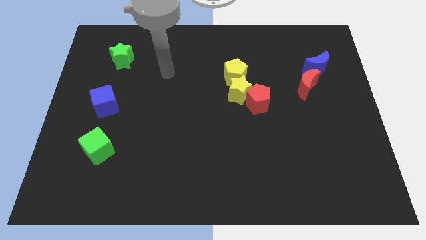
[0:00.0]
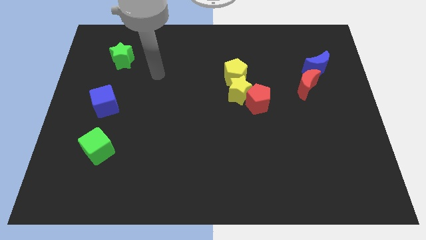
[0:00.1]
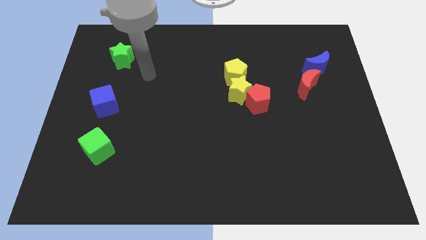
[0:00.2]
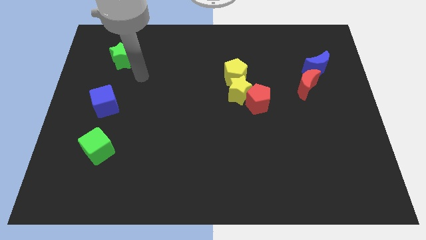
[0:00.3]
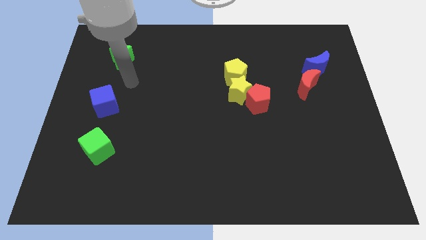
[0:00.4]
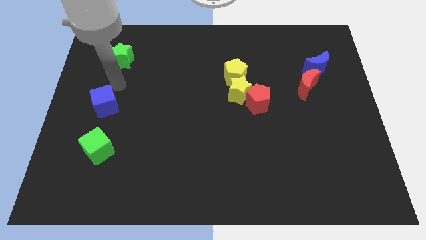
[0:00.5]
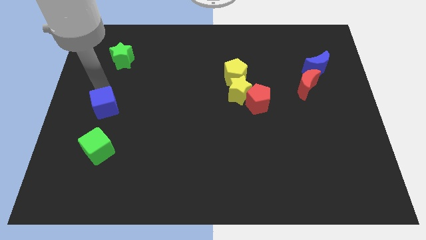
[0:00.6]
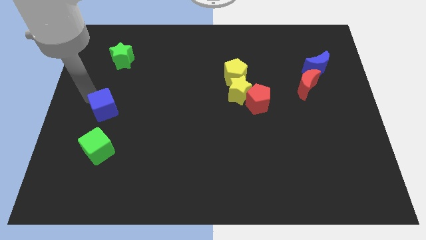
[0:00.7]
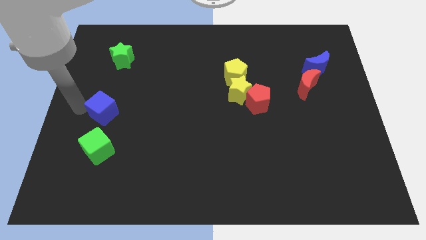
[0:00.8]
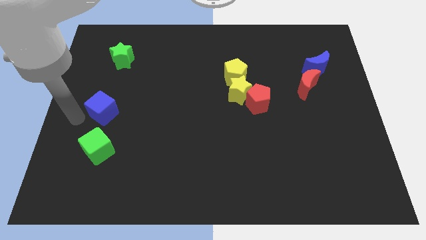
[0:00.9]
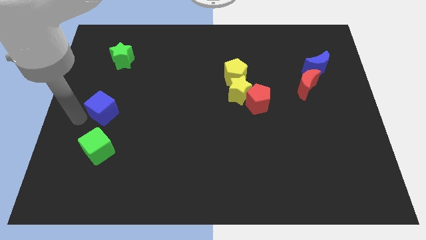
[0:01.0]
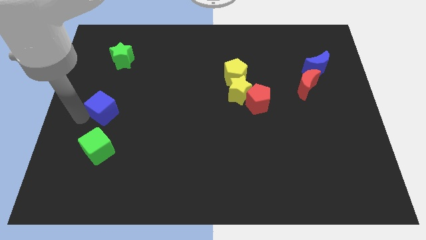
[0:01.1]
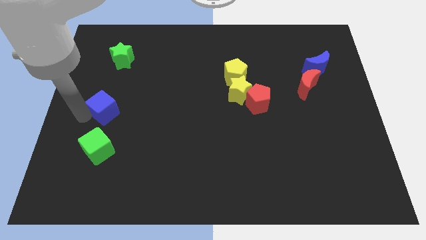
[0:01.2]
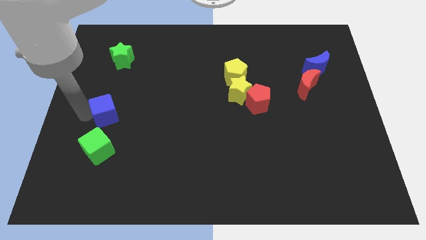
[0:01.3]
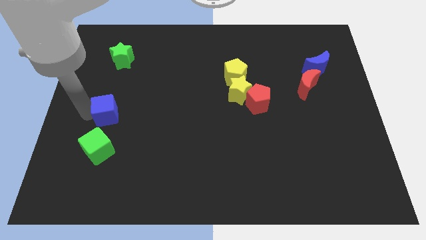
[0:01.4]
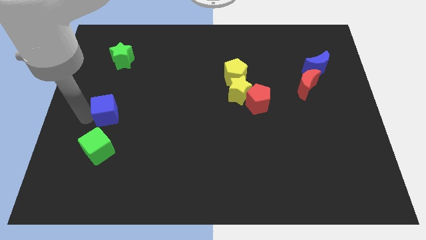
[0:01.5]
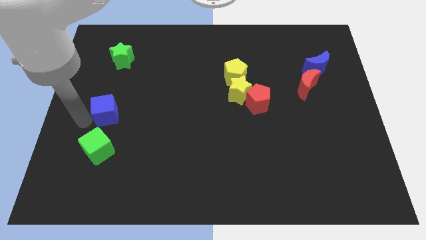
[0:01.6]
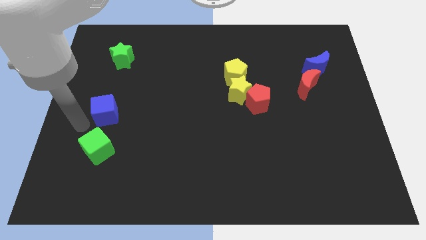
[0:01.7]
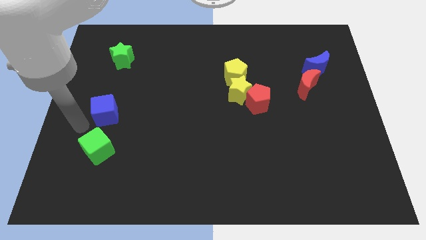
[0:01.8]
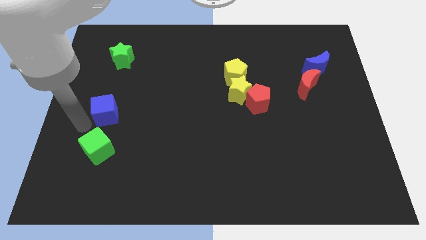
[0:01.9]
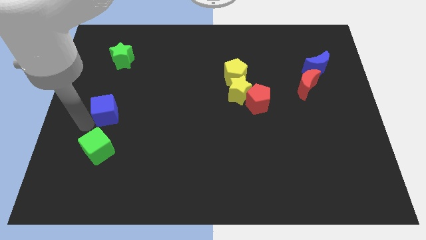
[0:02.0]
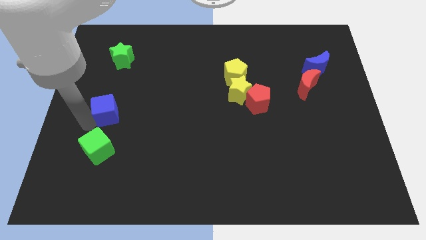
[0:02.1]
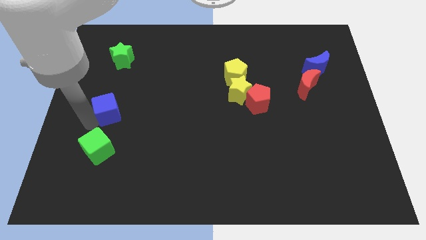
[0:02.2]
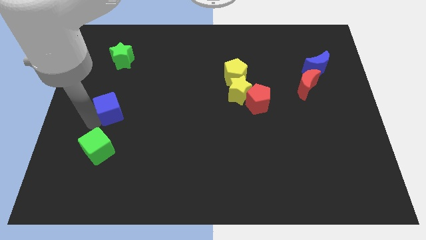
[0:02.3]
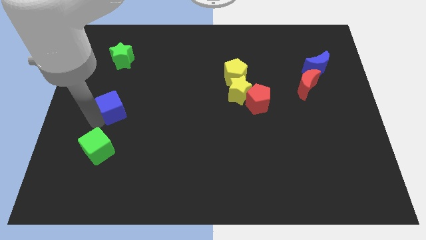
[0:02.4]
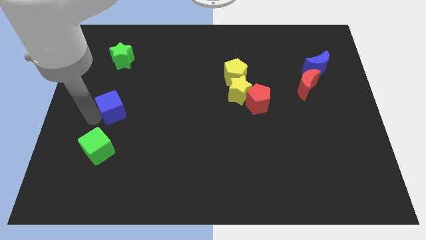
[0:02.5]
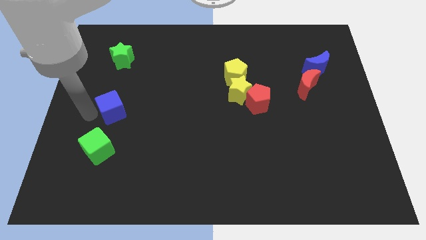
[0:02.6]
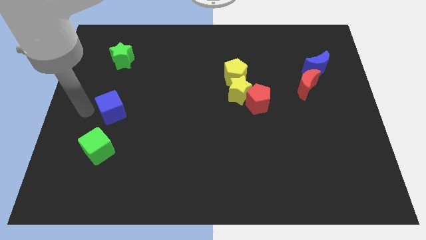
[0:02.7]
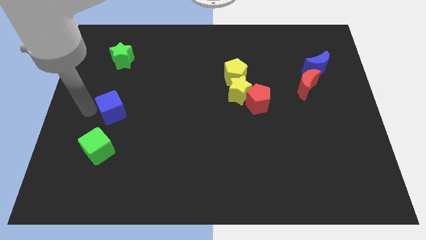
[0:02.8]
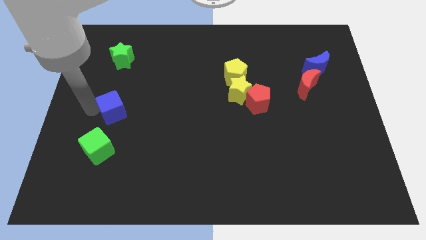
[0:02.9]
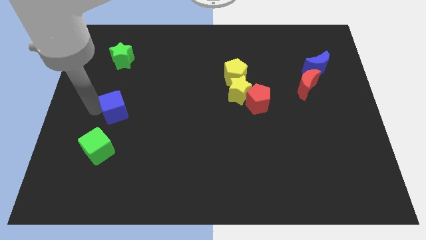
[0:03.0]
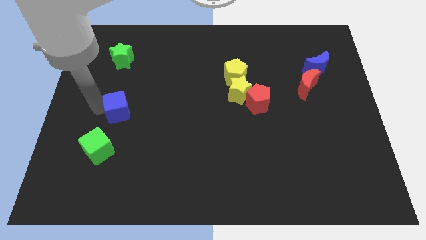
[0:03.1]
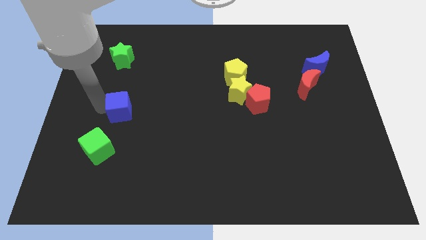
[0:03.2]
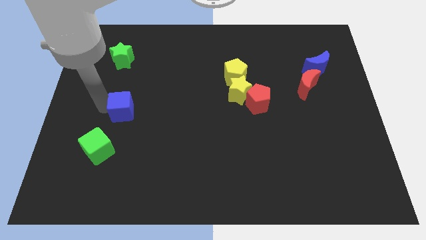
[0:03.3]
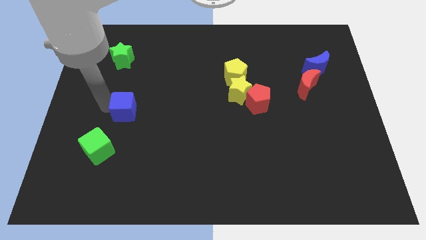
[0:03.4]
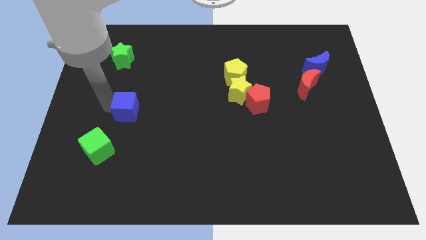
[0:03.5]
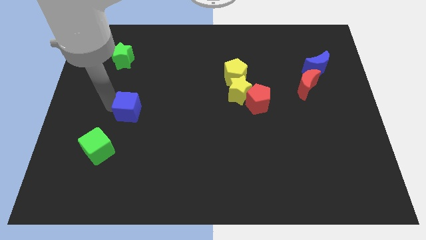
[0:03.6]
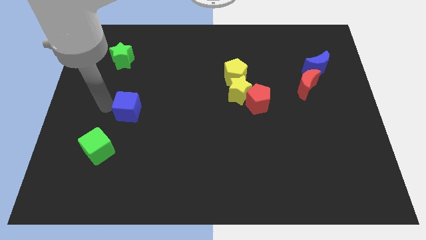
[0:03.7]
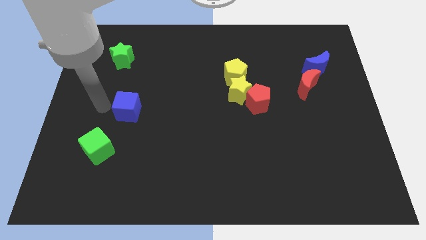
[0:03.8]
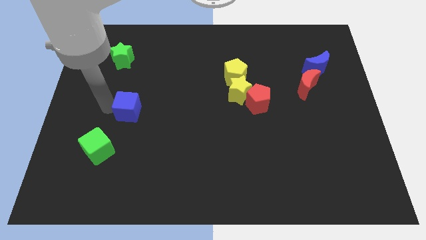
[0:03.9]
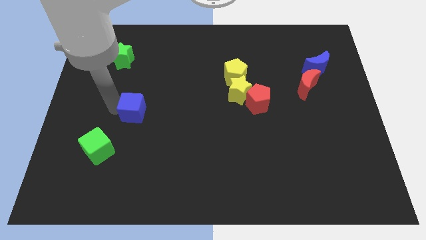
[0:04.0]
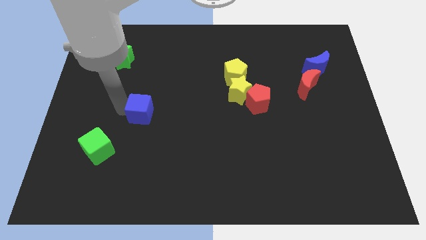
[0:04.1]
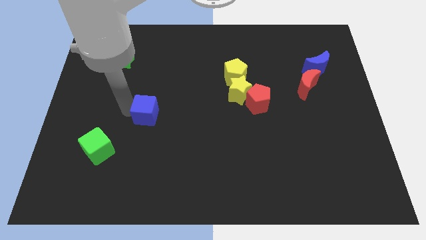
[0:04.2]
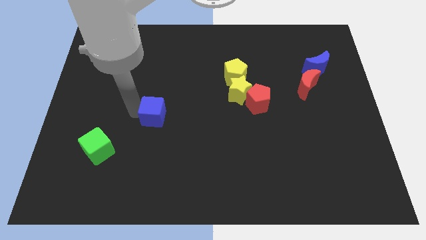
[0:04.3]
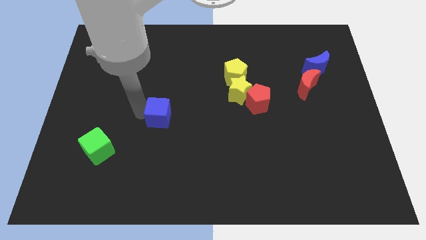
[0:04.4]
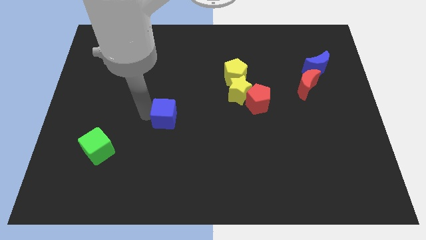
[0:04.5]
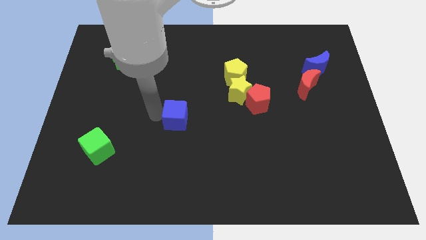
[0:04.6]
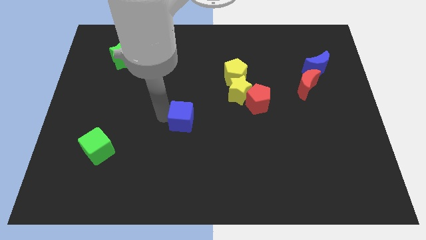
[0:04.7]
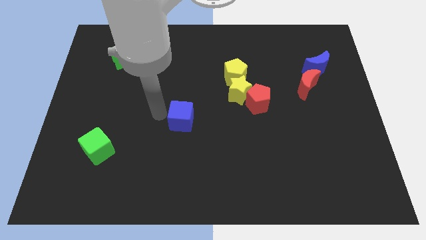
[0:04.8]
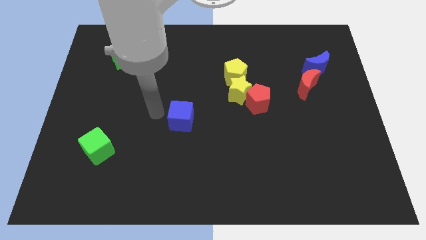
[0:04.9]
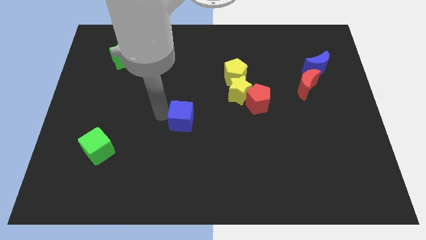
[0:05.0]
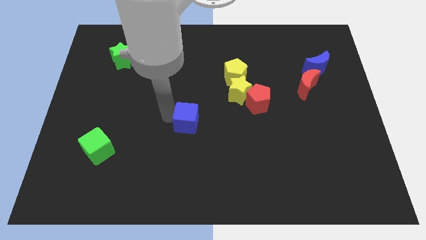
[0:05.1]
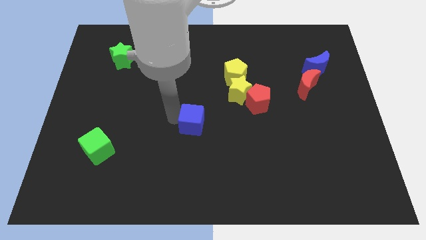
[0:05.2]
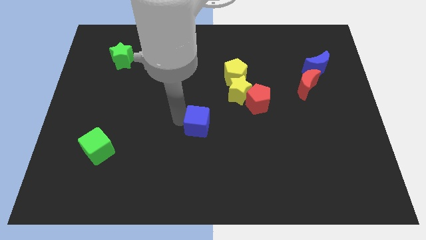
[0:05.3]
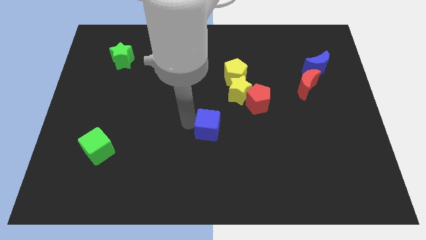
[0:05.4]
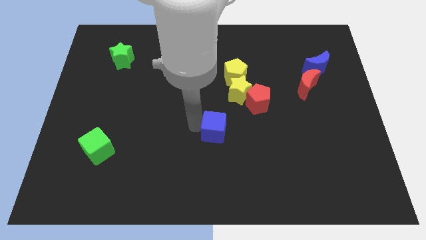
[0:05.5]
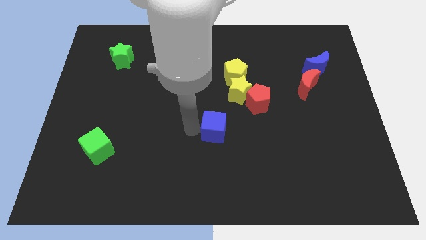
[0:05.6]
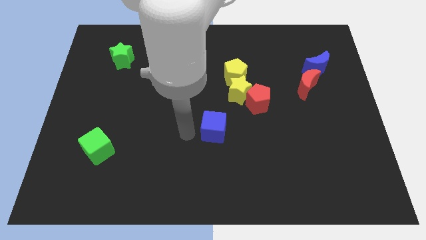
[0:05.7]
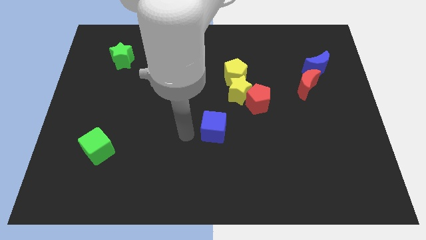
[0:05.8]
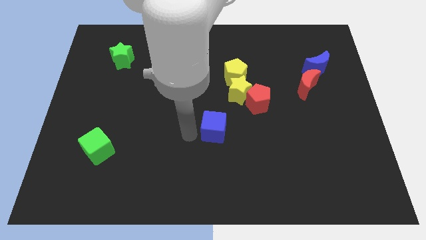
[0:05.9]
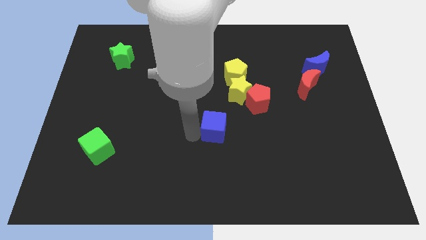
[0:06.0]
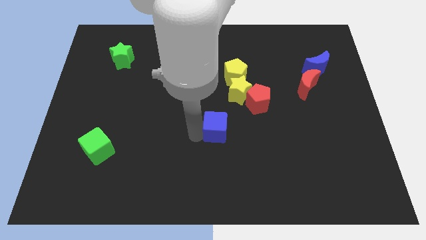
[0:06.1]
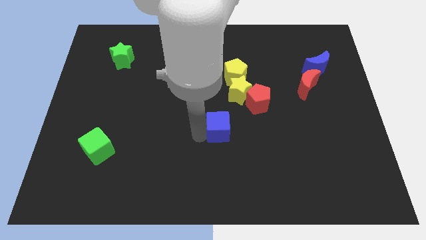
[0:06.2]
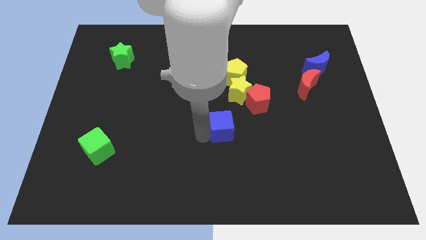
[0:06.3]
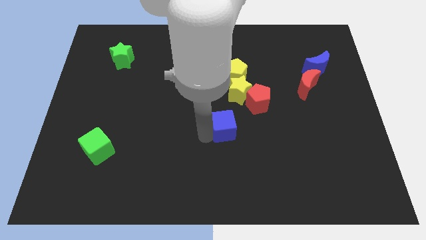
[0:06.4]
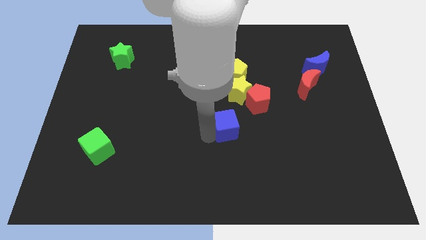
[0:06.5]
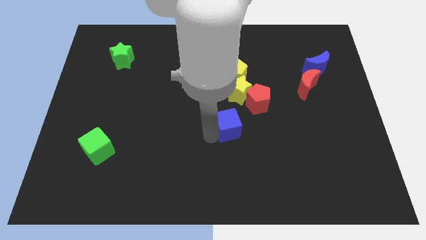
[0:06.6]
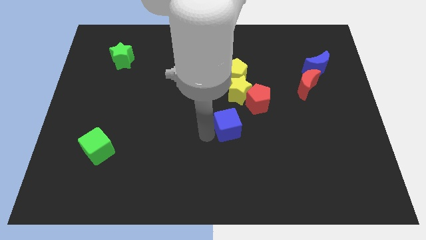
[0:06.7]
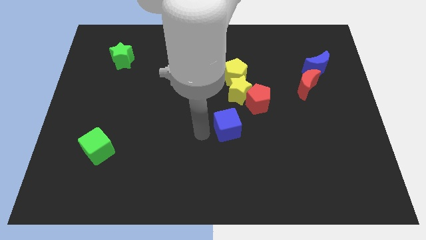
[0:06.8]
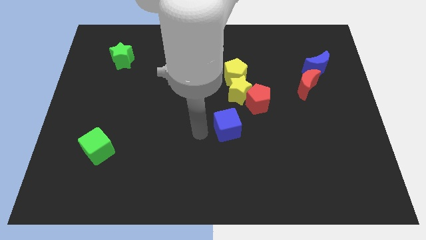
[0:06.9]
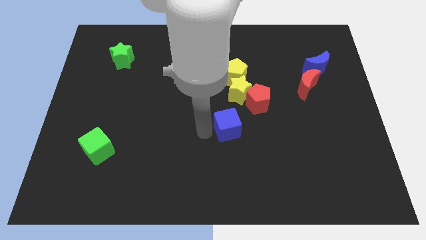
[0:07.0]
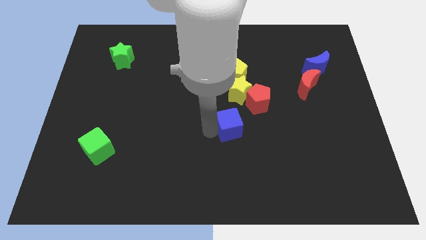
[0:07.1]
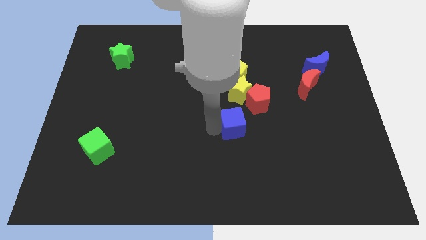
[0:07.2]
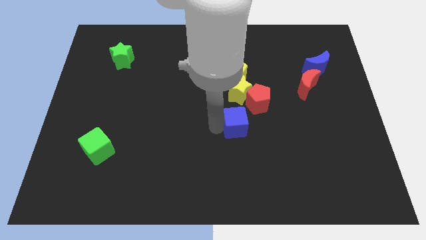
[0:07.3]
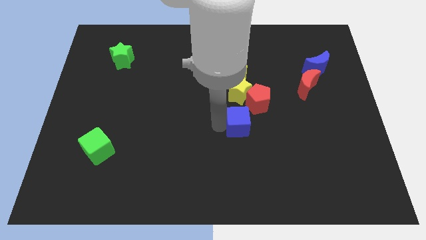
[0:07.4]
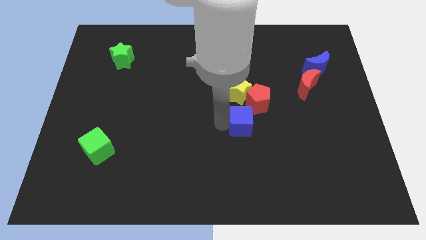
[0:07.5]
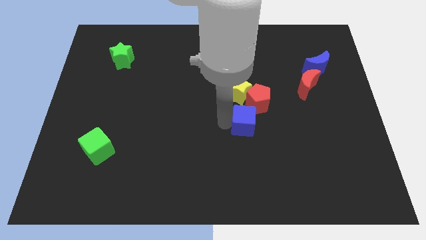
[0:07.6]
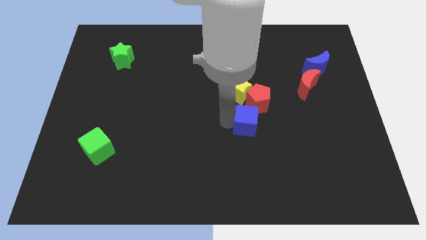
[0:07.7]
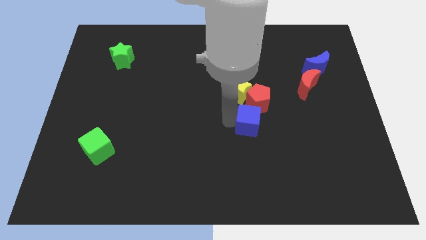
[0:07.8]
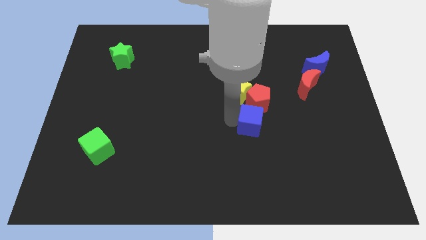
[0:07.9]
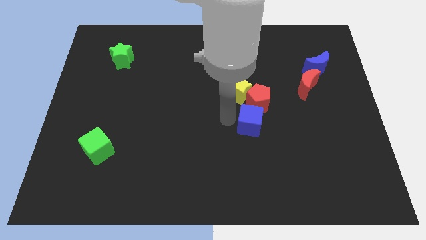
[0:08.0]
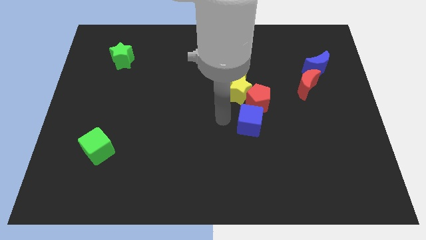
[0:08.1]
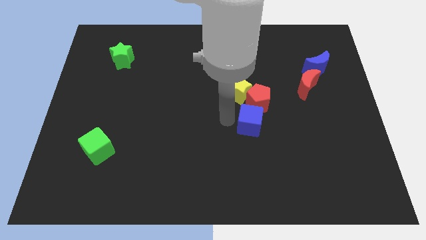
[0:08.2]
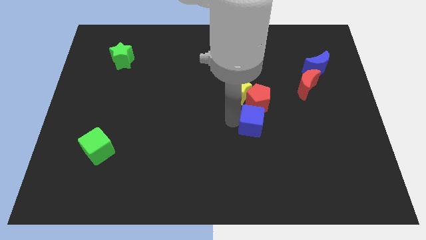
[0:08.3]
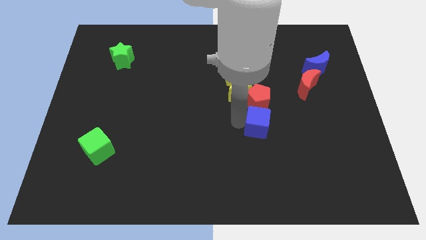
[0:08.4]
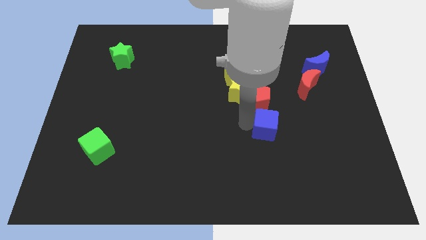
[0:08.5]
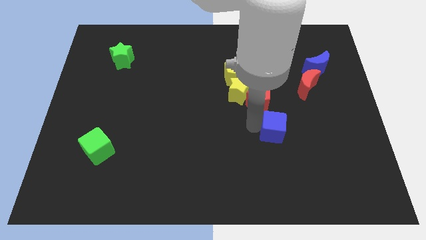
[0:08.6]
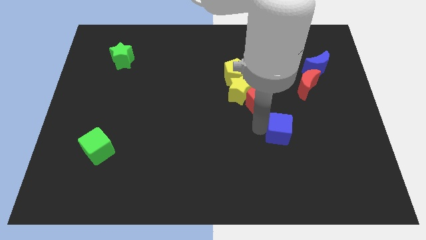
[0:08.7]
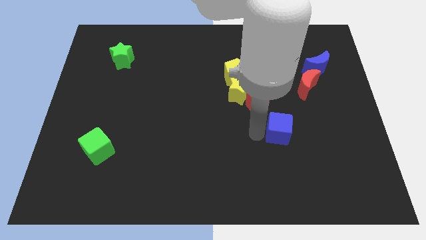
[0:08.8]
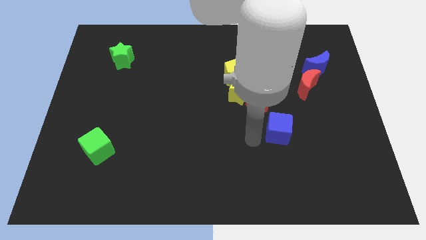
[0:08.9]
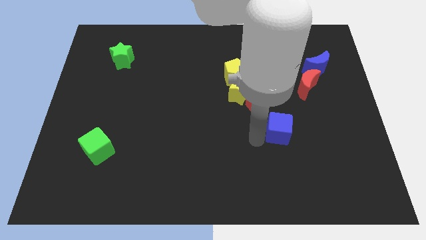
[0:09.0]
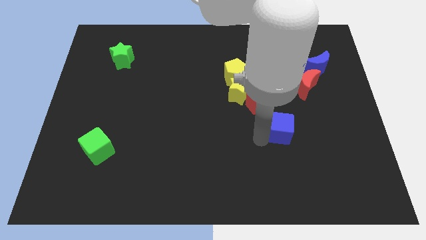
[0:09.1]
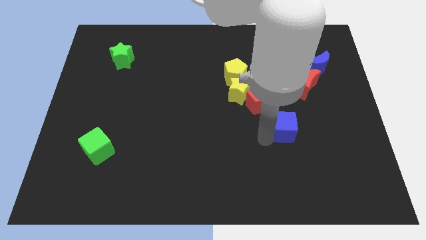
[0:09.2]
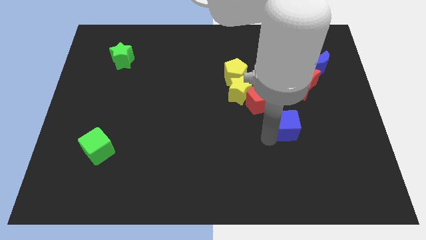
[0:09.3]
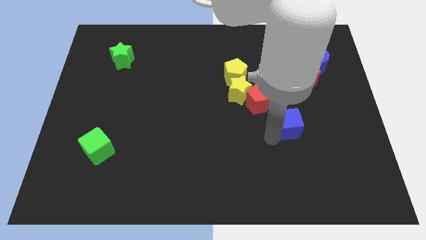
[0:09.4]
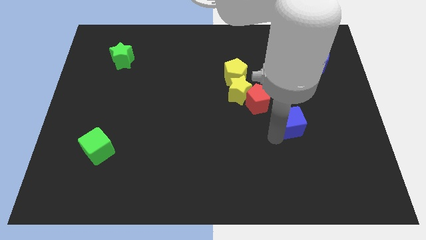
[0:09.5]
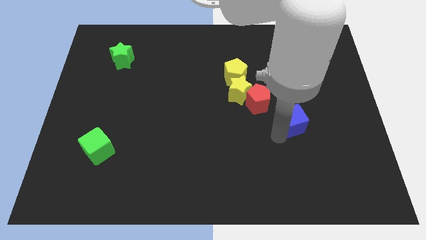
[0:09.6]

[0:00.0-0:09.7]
put the blue cube below the red moon
